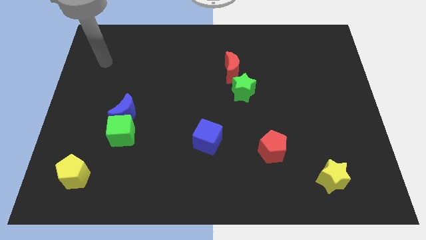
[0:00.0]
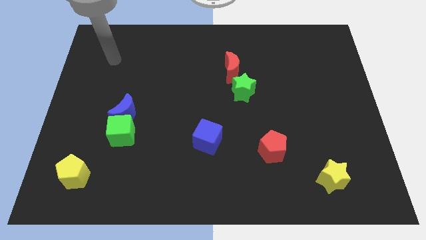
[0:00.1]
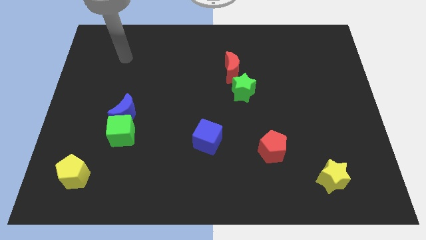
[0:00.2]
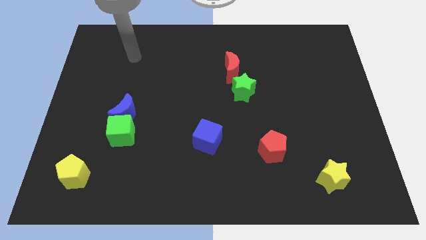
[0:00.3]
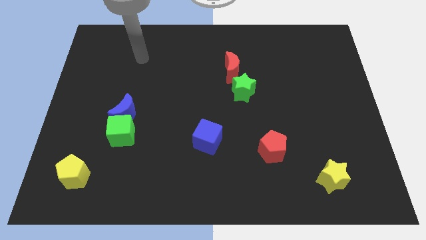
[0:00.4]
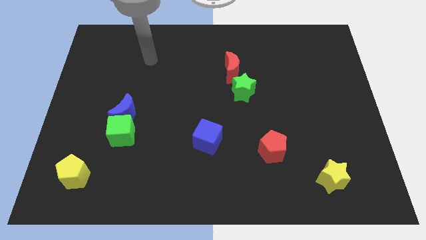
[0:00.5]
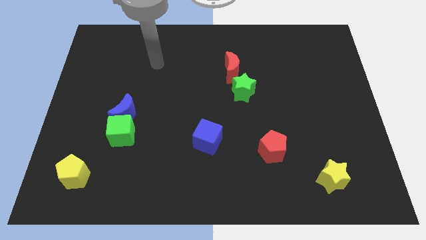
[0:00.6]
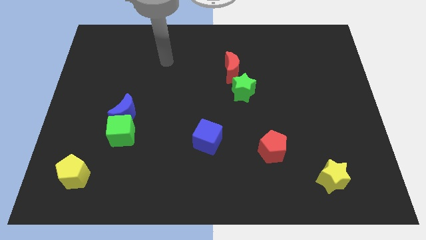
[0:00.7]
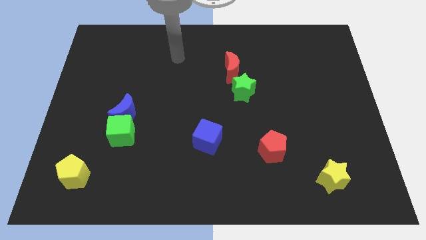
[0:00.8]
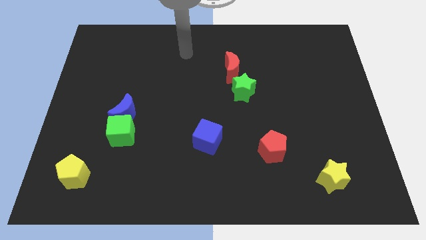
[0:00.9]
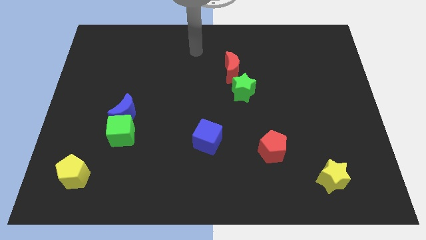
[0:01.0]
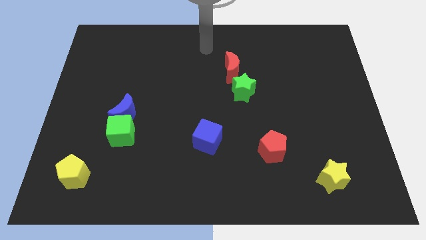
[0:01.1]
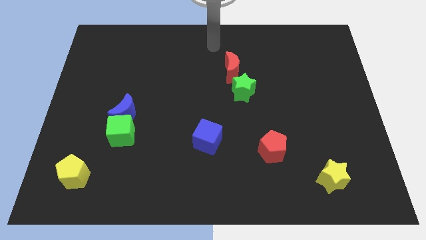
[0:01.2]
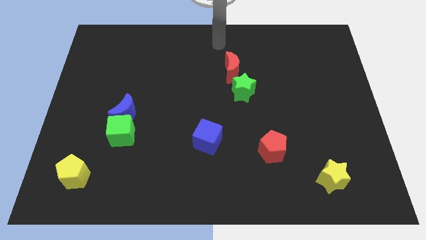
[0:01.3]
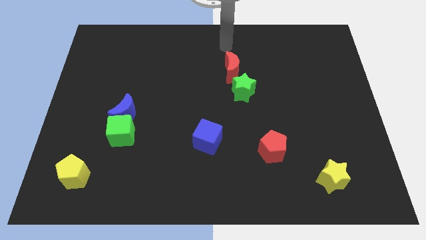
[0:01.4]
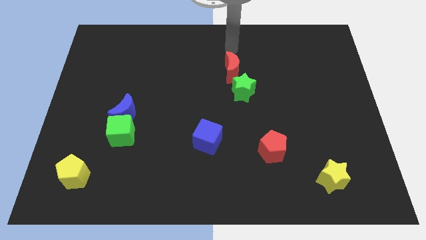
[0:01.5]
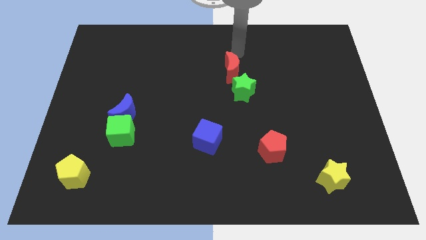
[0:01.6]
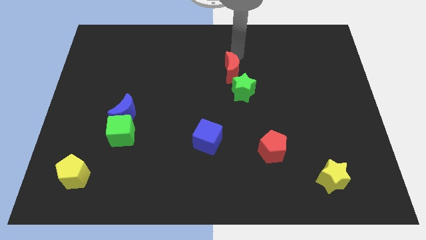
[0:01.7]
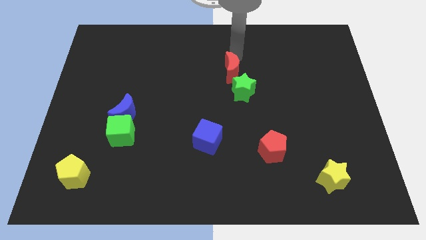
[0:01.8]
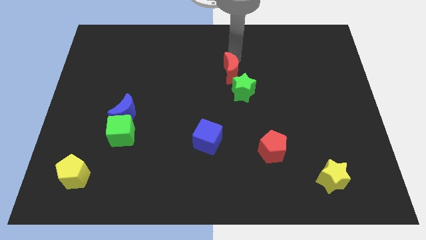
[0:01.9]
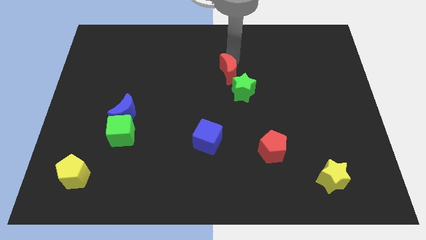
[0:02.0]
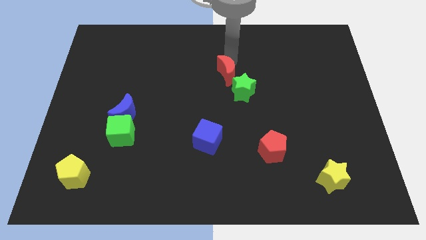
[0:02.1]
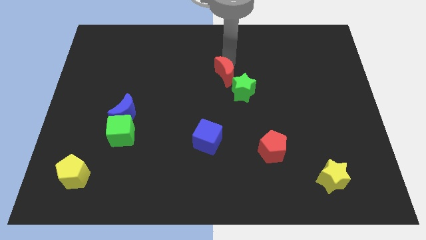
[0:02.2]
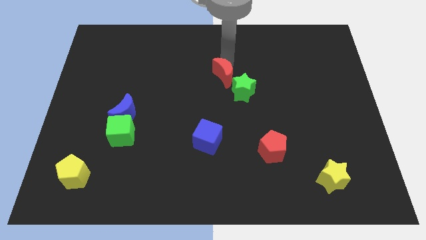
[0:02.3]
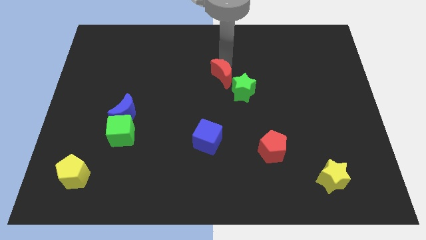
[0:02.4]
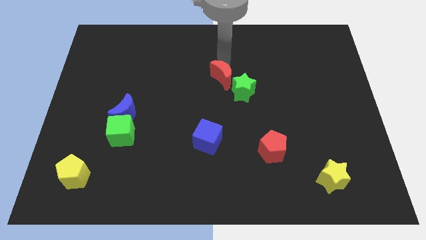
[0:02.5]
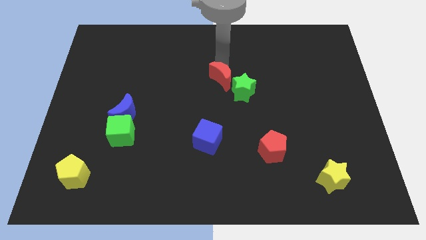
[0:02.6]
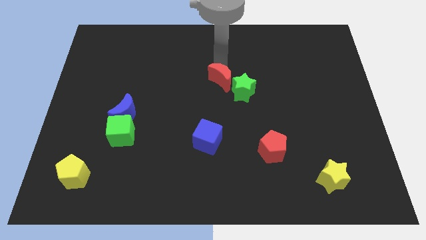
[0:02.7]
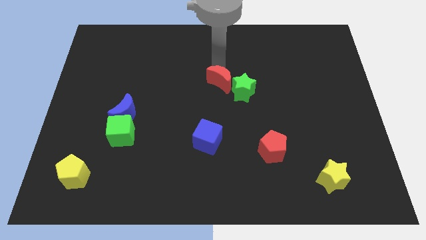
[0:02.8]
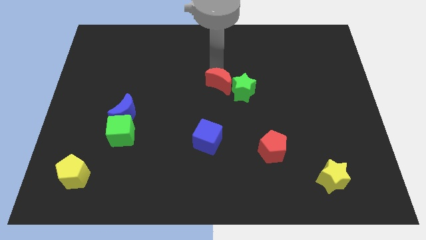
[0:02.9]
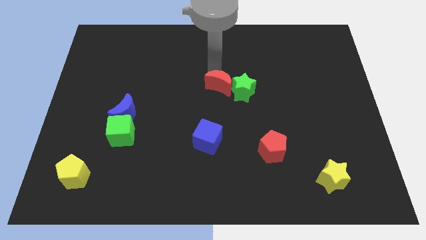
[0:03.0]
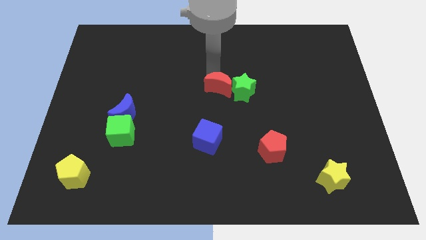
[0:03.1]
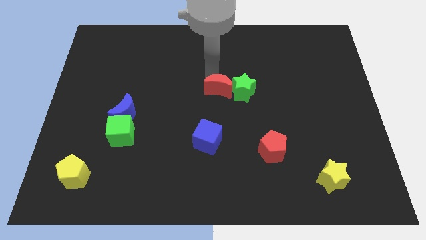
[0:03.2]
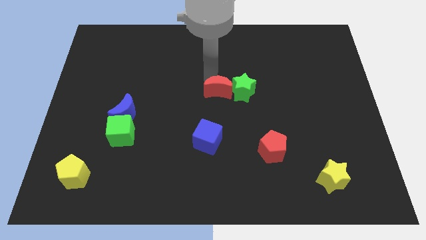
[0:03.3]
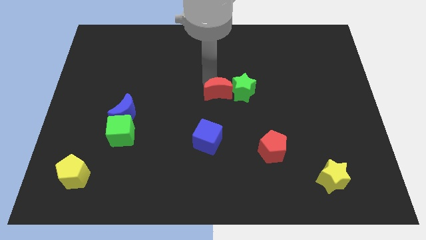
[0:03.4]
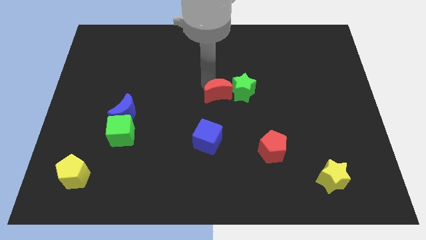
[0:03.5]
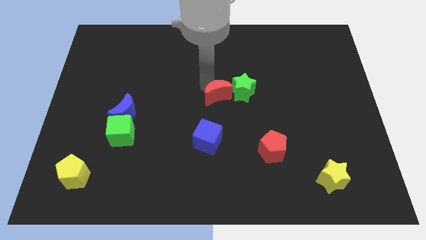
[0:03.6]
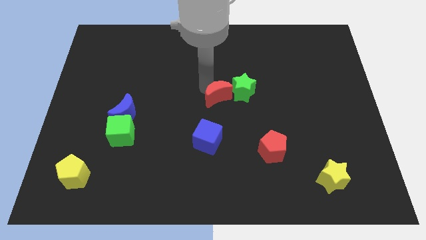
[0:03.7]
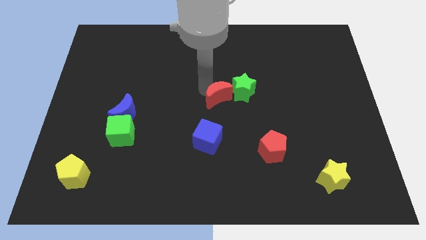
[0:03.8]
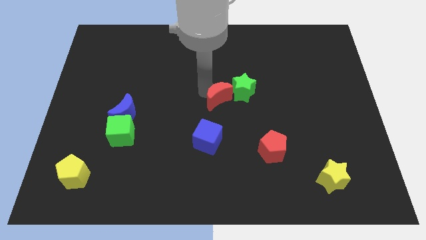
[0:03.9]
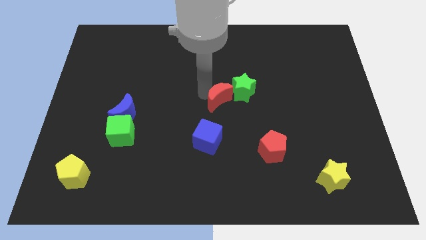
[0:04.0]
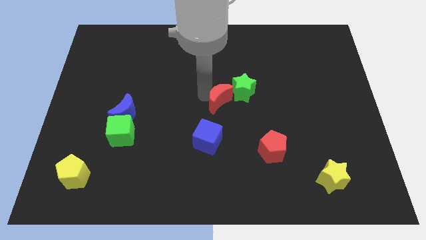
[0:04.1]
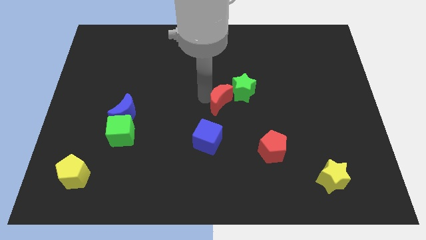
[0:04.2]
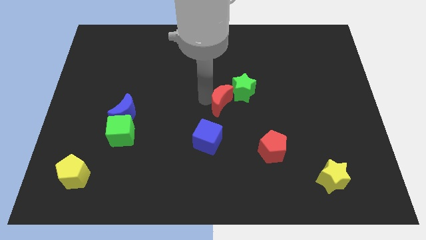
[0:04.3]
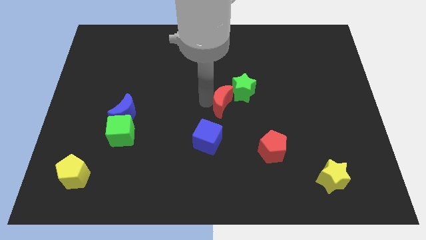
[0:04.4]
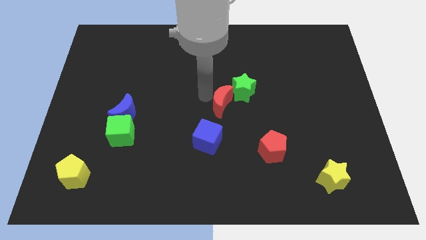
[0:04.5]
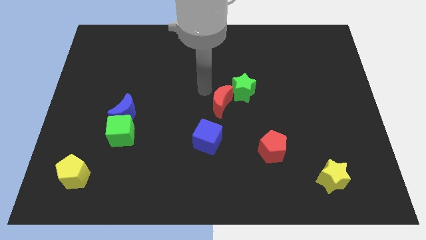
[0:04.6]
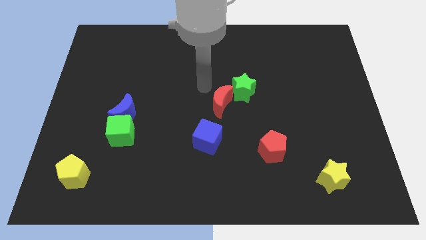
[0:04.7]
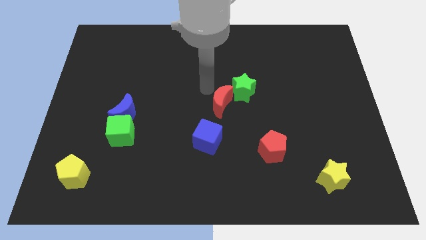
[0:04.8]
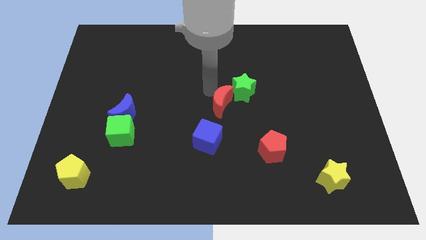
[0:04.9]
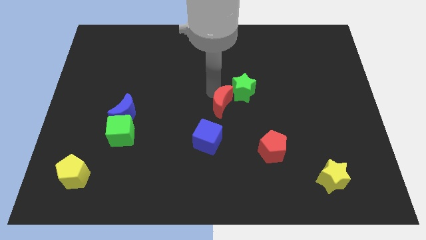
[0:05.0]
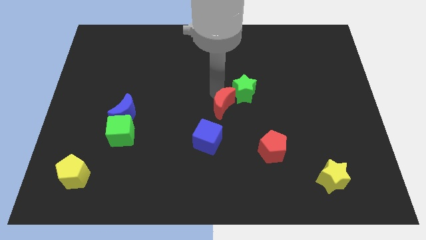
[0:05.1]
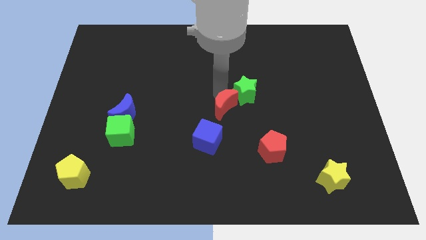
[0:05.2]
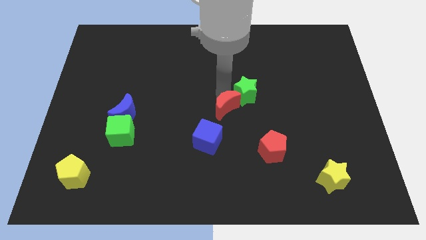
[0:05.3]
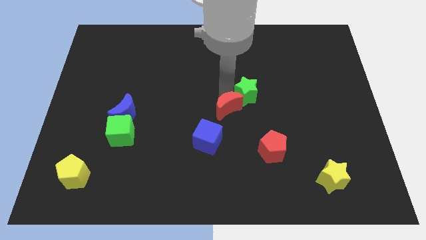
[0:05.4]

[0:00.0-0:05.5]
slide the red moon to the bottom side of the green star

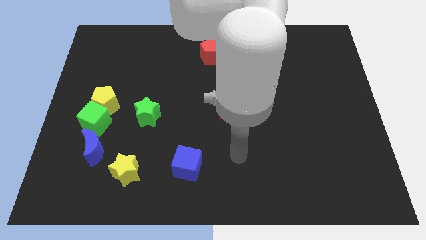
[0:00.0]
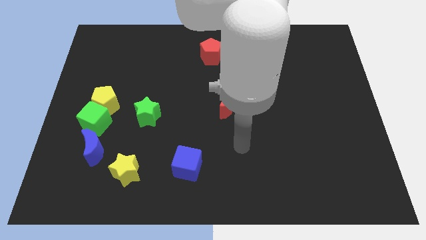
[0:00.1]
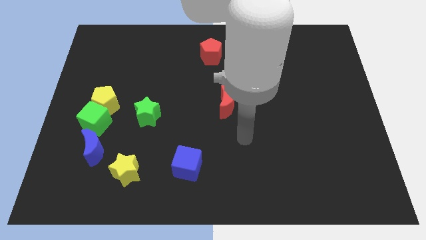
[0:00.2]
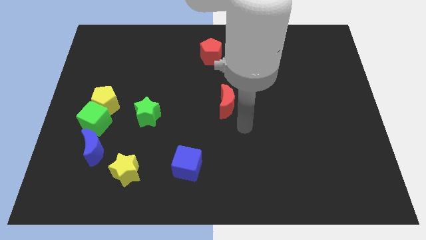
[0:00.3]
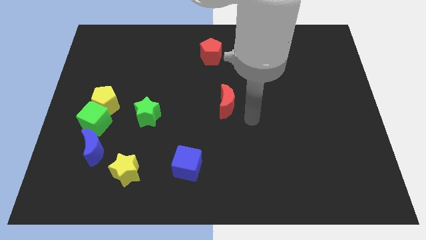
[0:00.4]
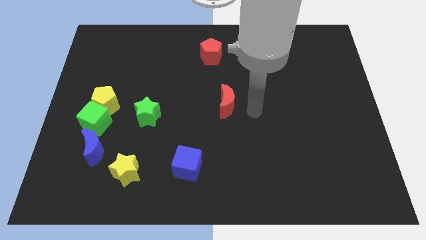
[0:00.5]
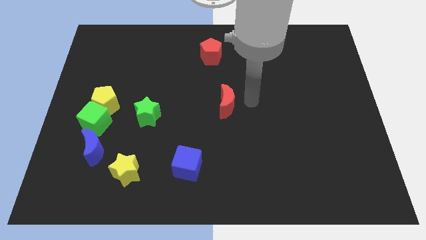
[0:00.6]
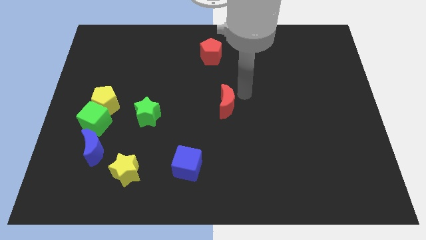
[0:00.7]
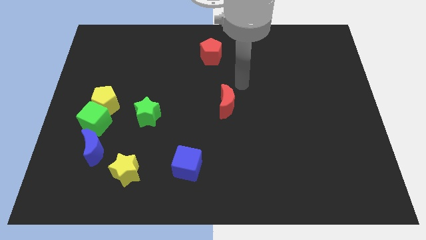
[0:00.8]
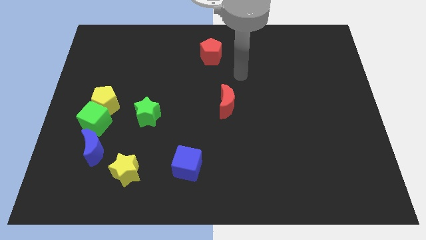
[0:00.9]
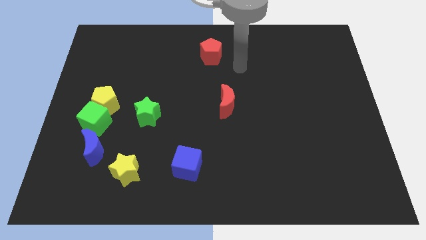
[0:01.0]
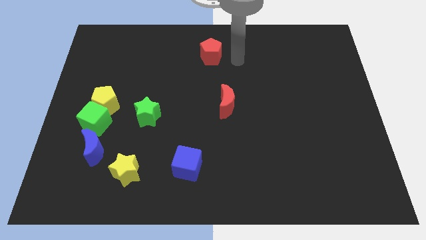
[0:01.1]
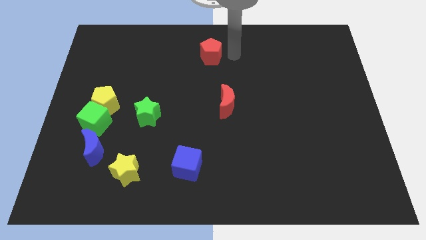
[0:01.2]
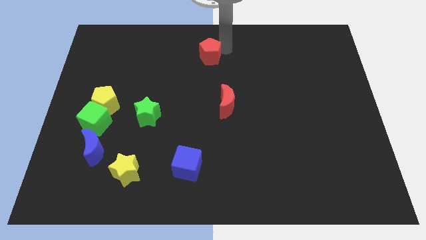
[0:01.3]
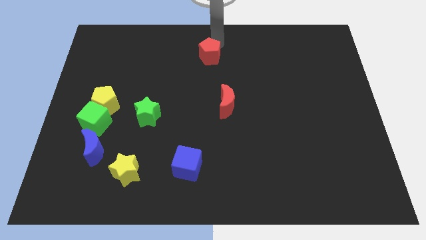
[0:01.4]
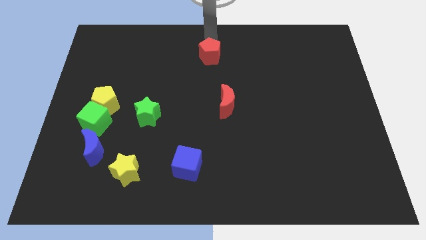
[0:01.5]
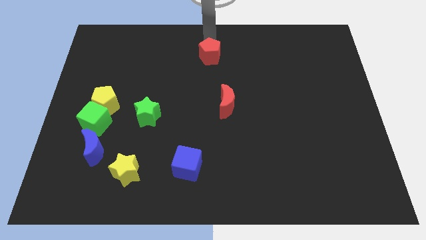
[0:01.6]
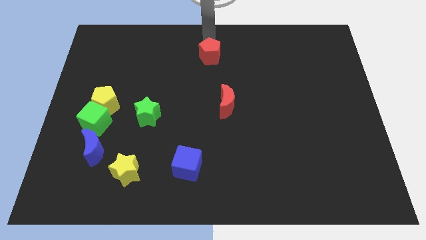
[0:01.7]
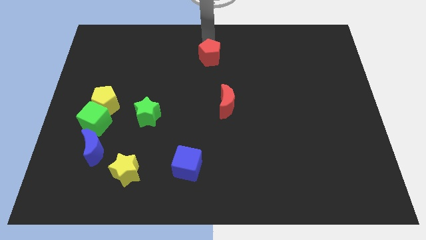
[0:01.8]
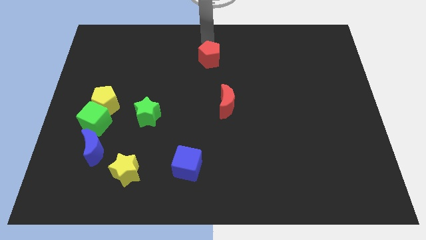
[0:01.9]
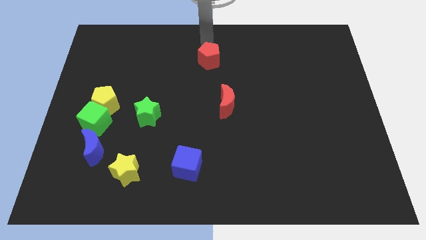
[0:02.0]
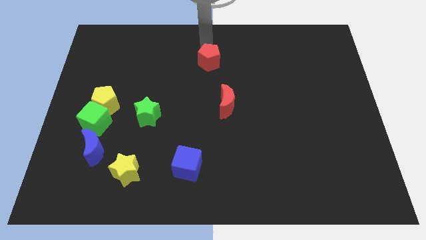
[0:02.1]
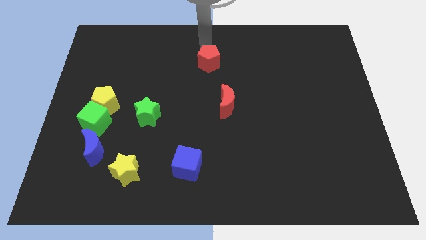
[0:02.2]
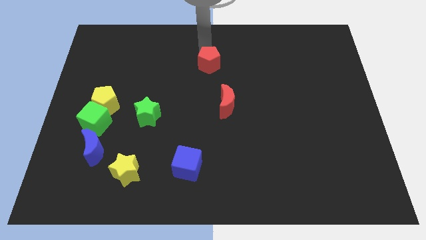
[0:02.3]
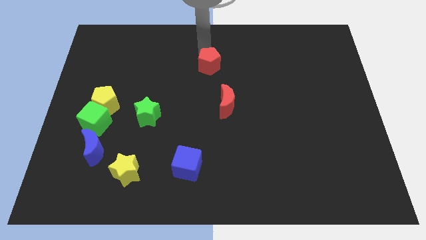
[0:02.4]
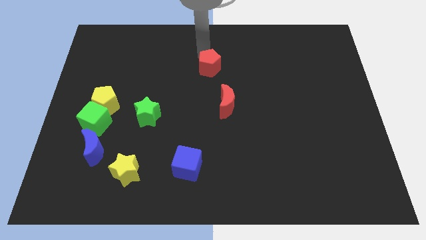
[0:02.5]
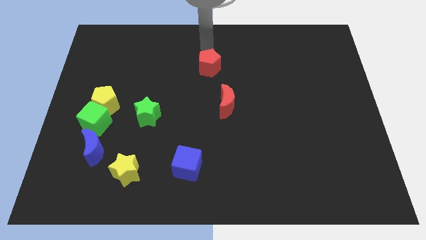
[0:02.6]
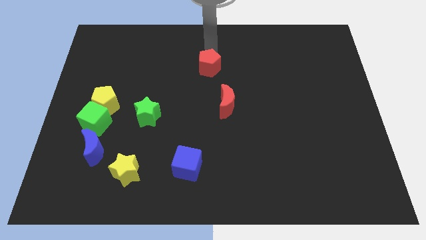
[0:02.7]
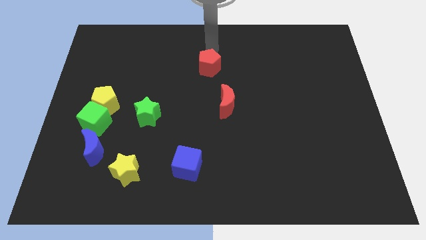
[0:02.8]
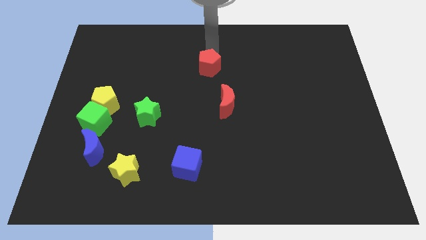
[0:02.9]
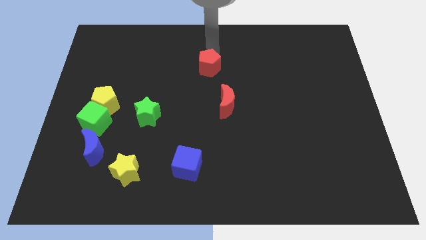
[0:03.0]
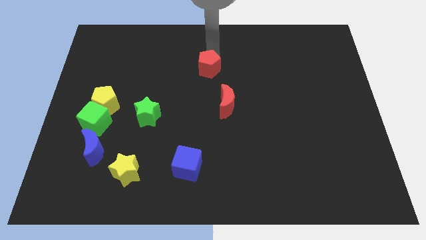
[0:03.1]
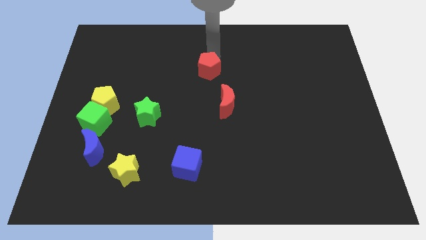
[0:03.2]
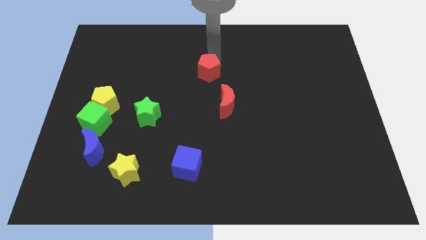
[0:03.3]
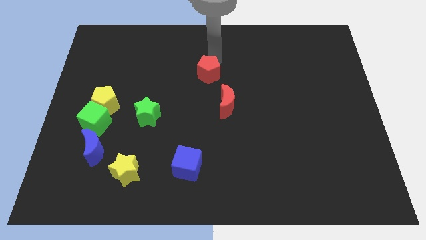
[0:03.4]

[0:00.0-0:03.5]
move the red pentagon to the top left side of the red moon
